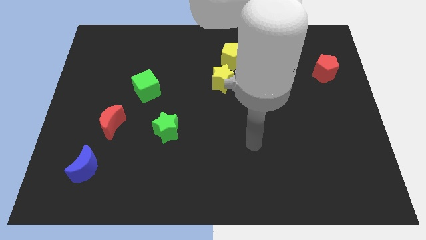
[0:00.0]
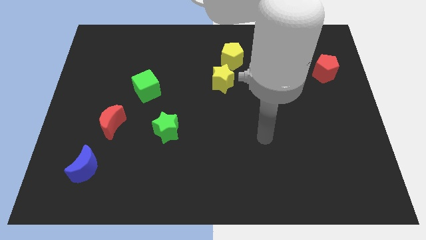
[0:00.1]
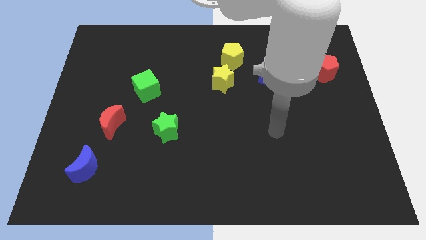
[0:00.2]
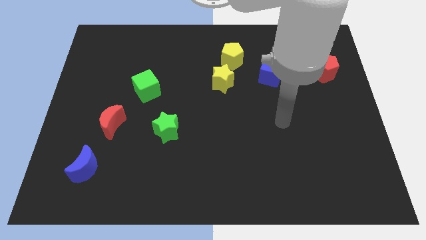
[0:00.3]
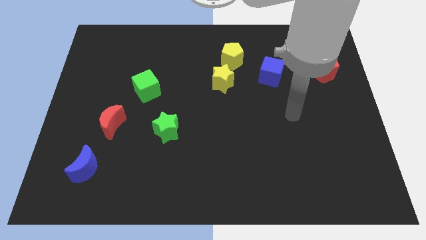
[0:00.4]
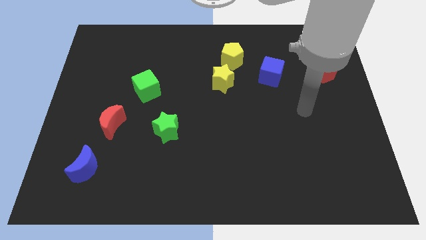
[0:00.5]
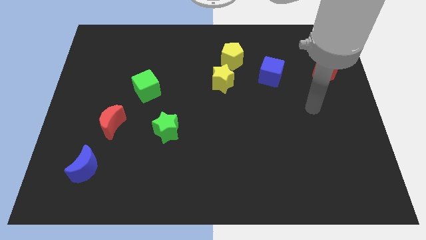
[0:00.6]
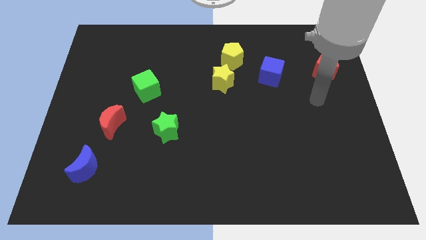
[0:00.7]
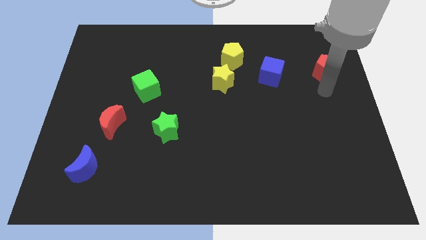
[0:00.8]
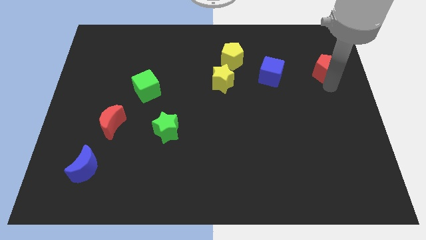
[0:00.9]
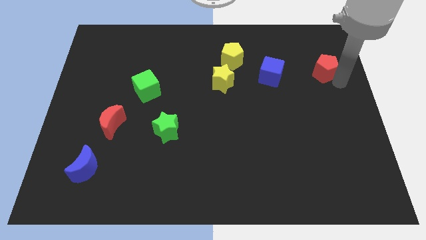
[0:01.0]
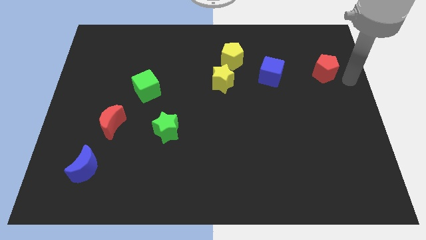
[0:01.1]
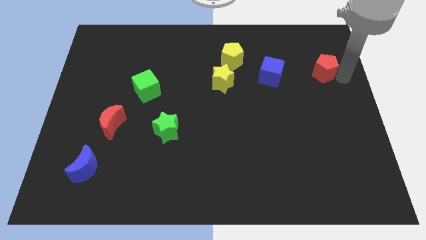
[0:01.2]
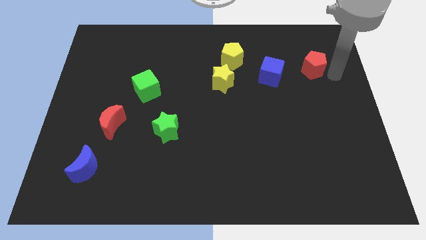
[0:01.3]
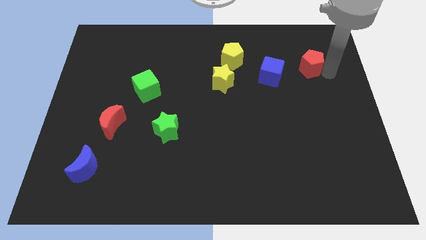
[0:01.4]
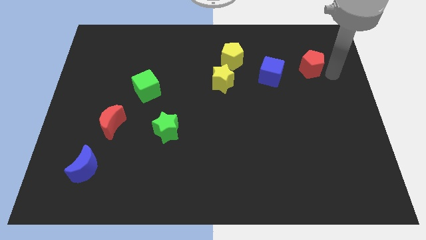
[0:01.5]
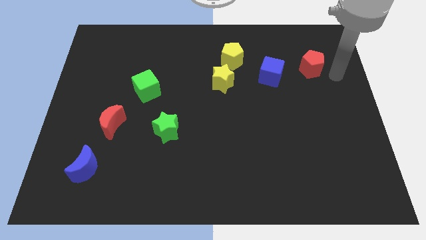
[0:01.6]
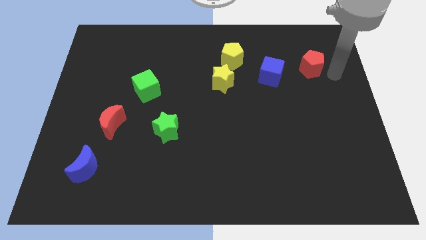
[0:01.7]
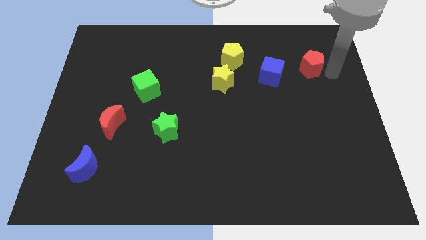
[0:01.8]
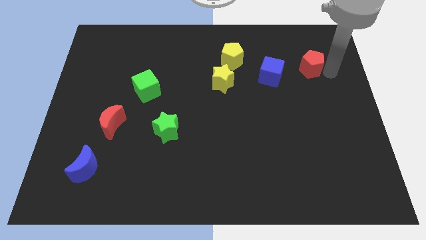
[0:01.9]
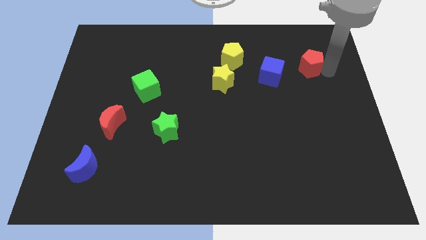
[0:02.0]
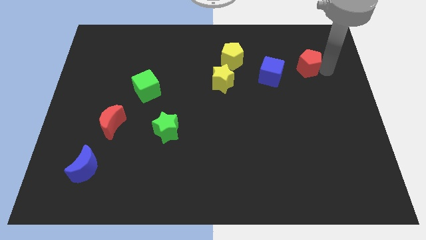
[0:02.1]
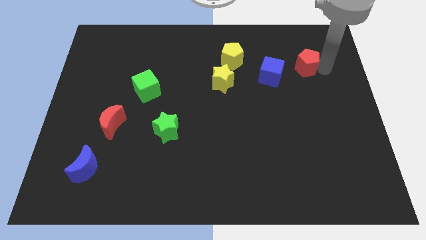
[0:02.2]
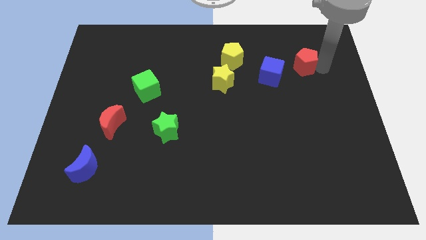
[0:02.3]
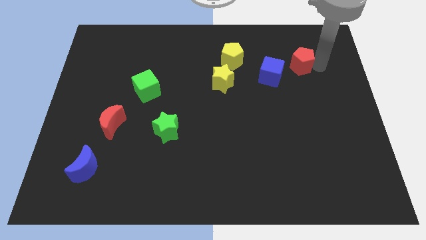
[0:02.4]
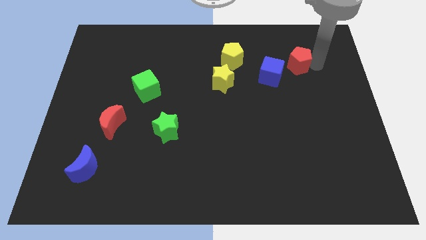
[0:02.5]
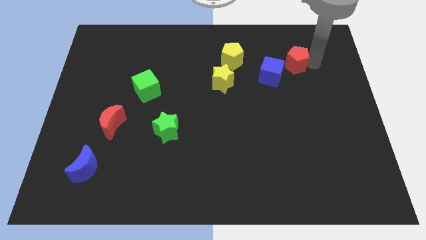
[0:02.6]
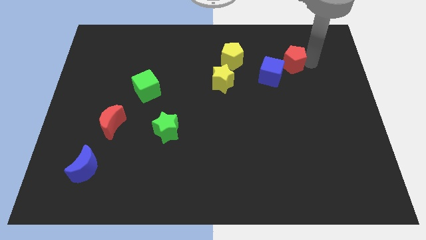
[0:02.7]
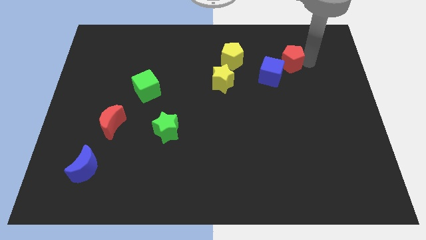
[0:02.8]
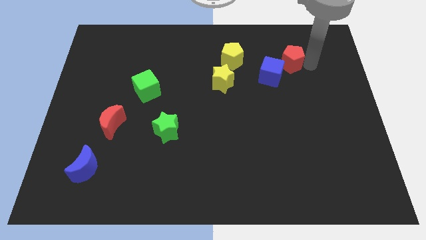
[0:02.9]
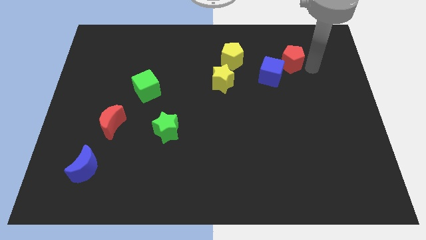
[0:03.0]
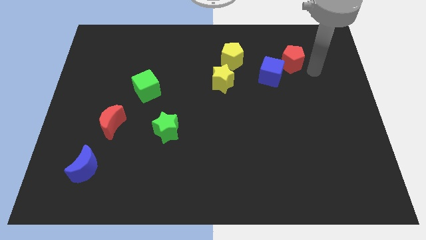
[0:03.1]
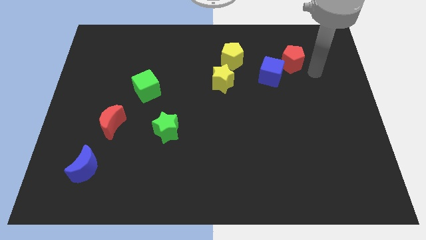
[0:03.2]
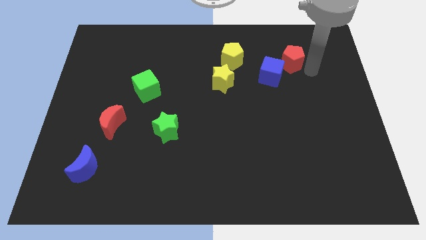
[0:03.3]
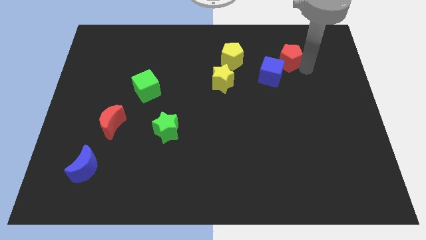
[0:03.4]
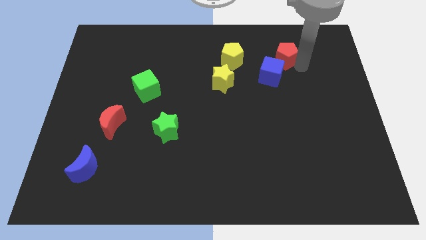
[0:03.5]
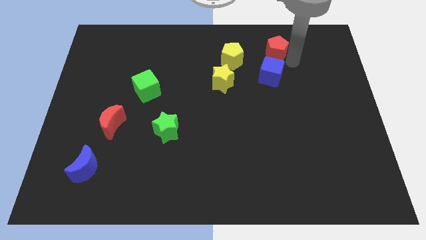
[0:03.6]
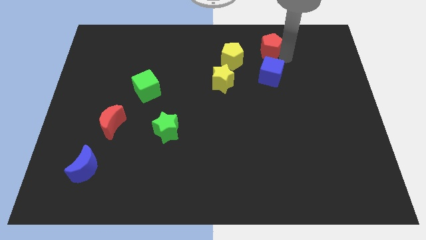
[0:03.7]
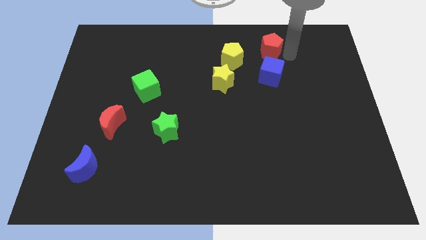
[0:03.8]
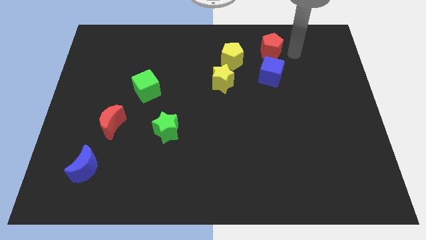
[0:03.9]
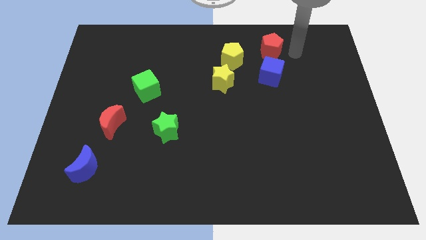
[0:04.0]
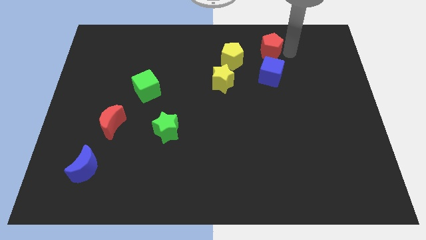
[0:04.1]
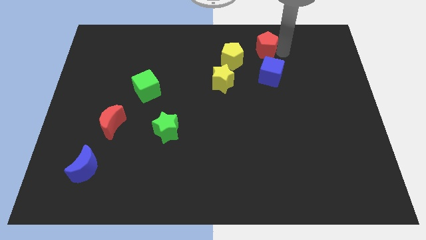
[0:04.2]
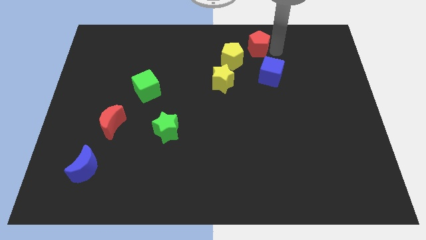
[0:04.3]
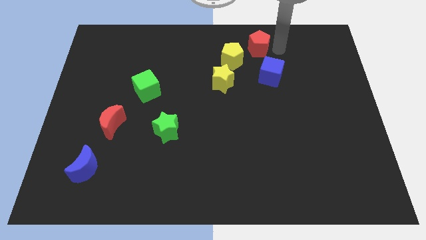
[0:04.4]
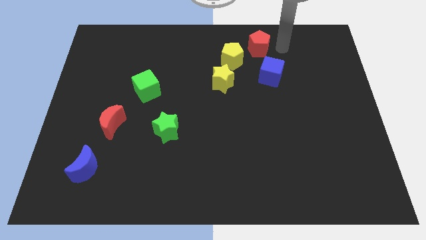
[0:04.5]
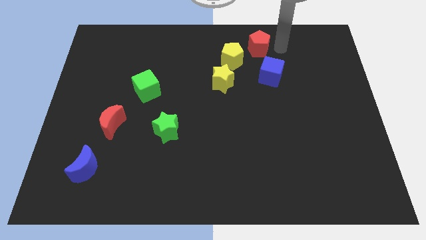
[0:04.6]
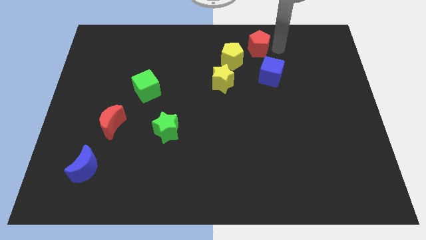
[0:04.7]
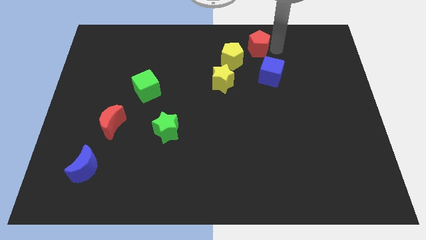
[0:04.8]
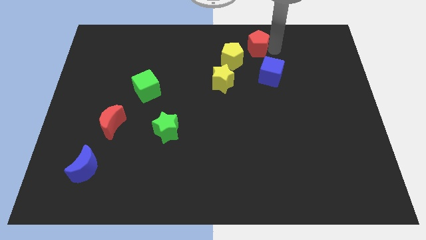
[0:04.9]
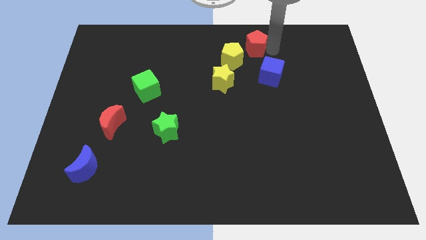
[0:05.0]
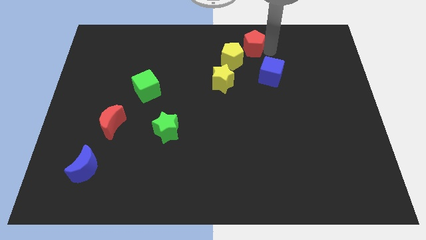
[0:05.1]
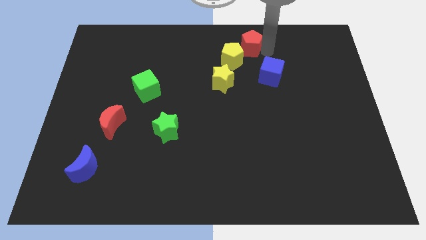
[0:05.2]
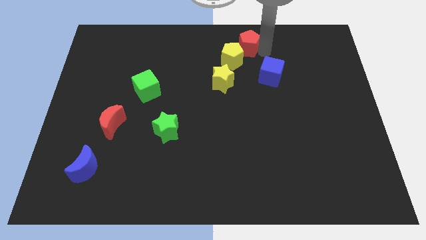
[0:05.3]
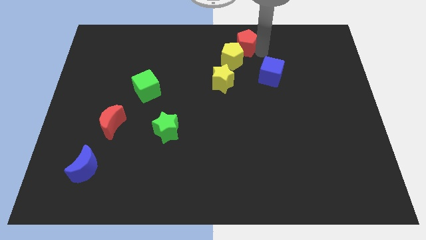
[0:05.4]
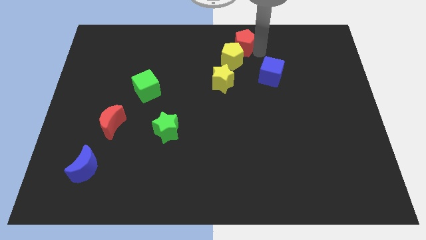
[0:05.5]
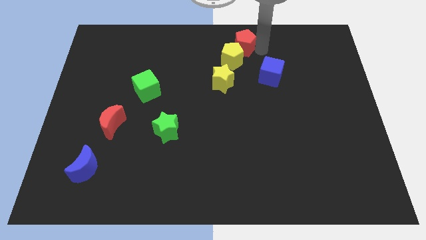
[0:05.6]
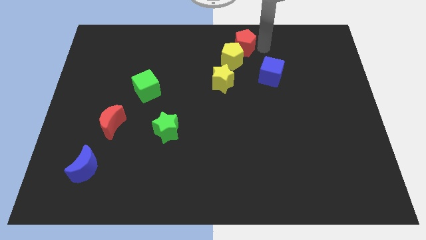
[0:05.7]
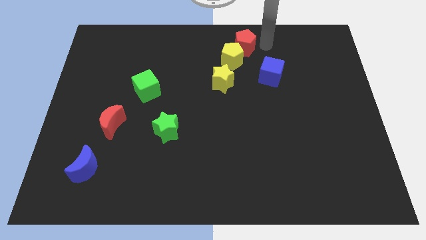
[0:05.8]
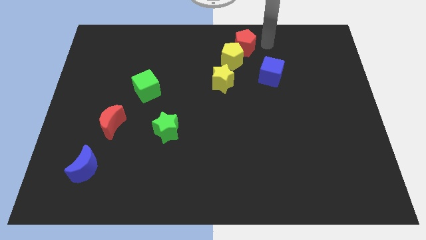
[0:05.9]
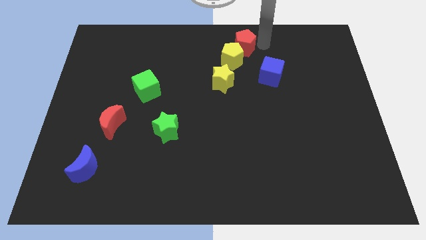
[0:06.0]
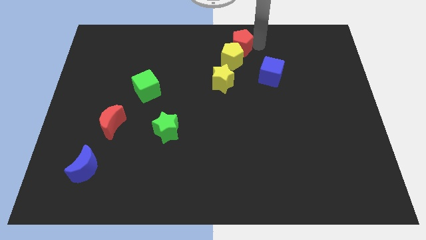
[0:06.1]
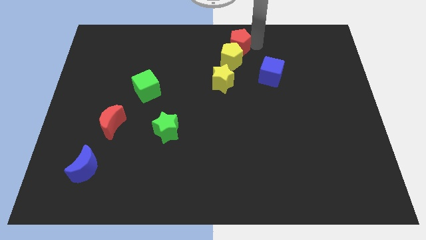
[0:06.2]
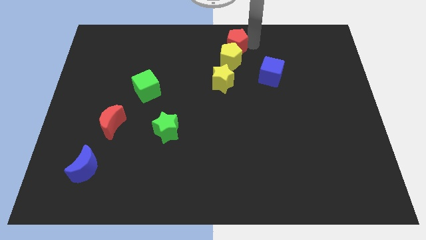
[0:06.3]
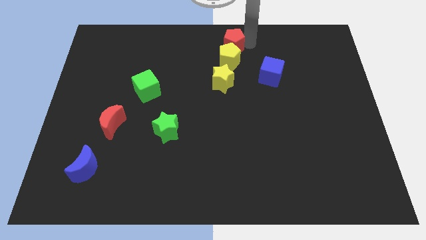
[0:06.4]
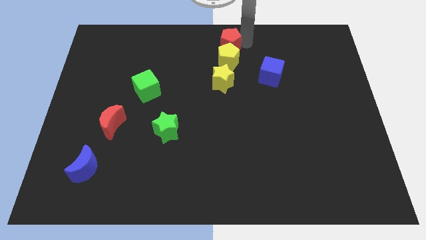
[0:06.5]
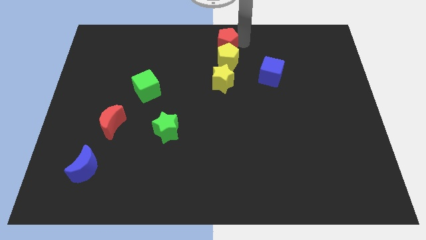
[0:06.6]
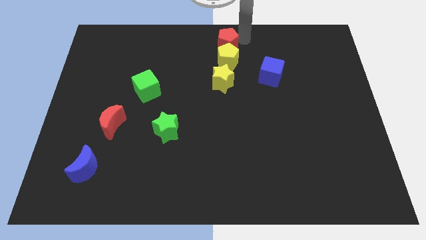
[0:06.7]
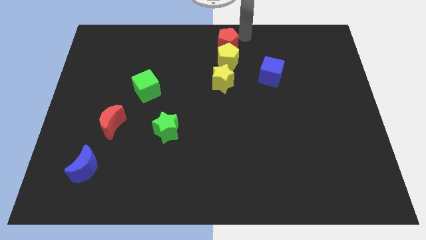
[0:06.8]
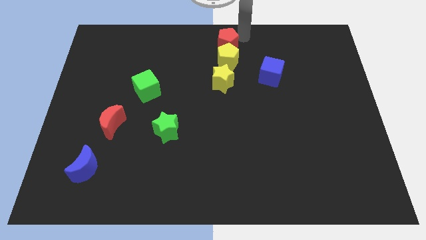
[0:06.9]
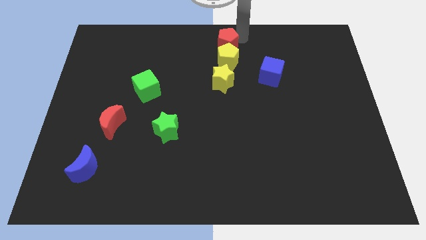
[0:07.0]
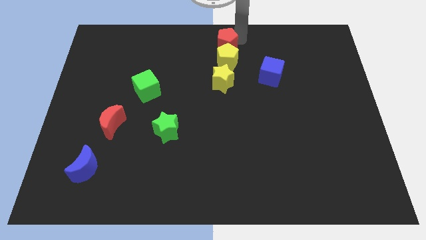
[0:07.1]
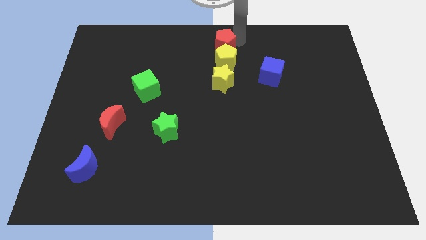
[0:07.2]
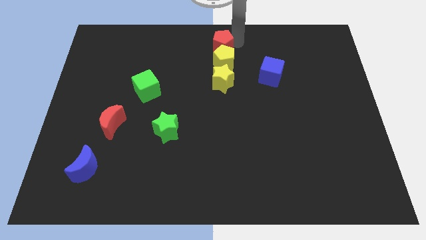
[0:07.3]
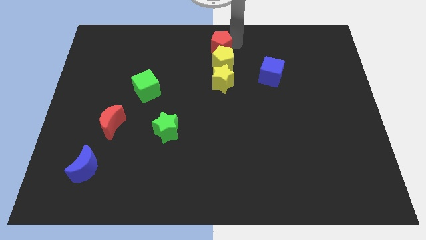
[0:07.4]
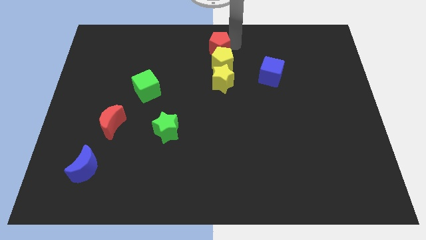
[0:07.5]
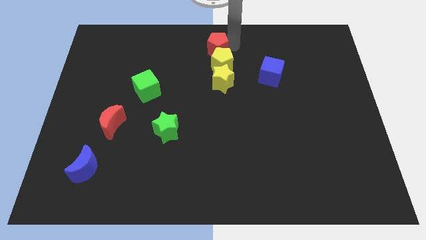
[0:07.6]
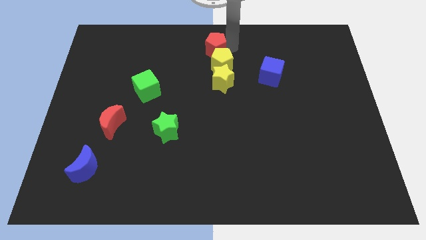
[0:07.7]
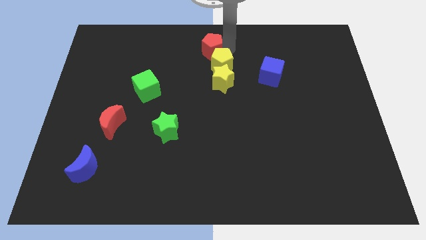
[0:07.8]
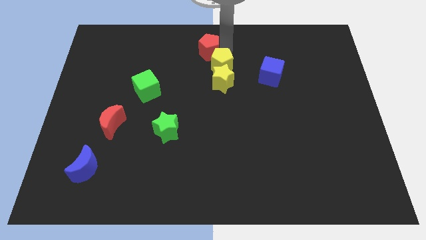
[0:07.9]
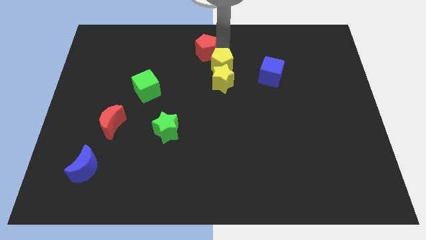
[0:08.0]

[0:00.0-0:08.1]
move the red pentagon just left of the yellow pentagon
